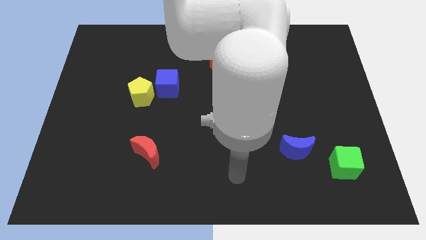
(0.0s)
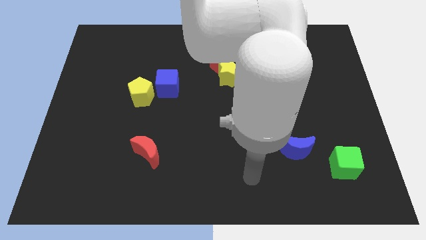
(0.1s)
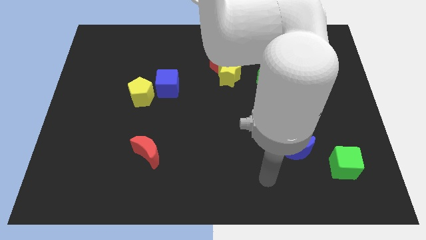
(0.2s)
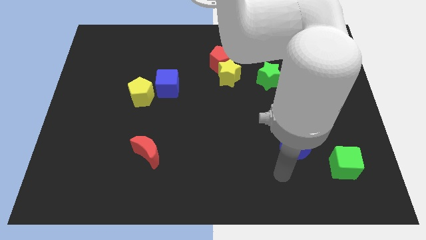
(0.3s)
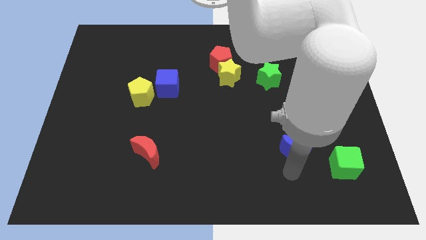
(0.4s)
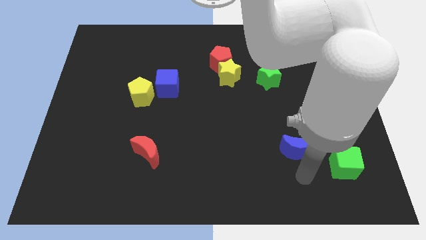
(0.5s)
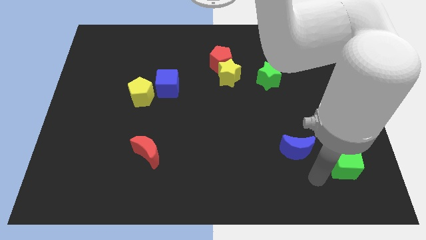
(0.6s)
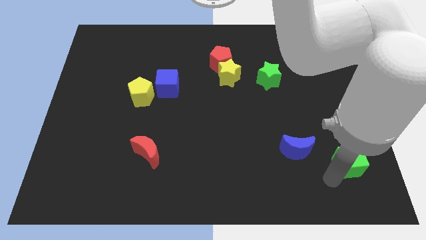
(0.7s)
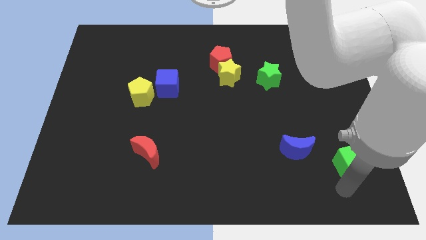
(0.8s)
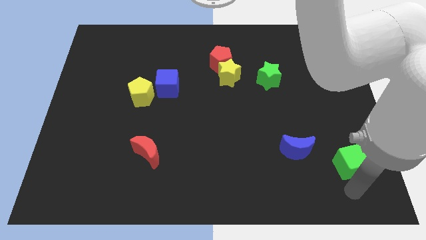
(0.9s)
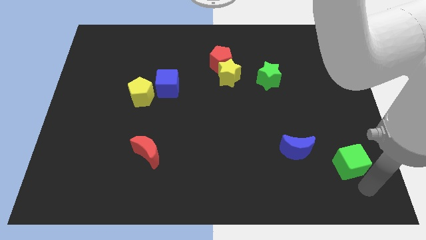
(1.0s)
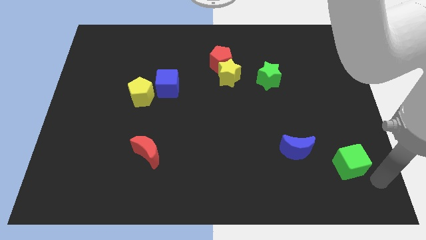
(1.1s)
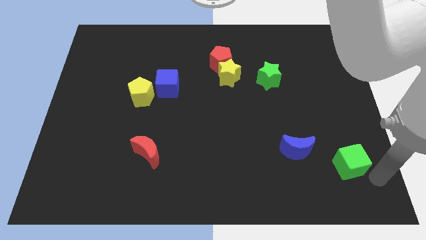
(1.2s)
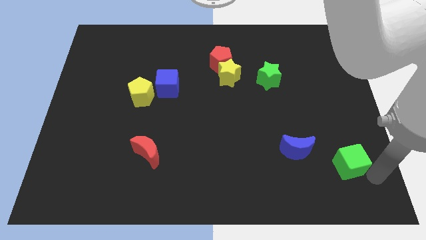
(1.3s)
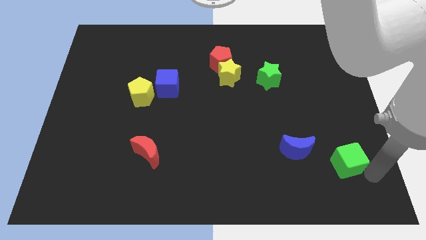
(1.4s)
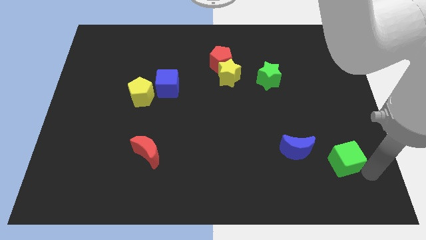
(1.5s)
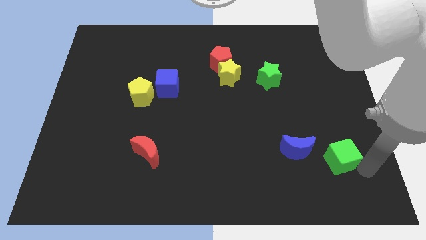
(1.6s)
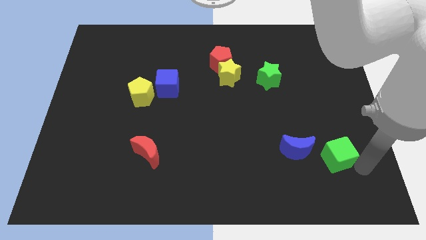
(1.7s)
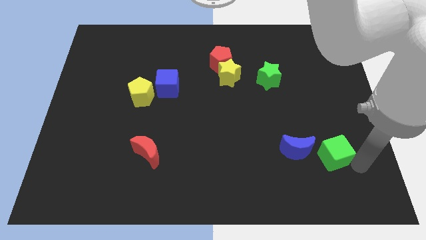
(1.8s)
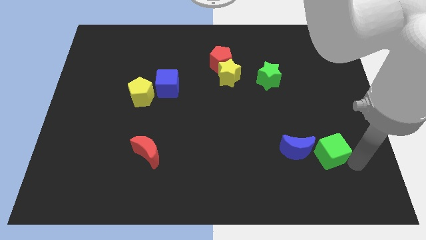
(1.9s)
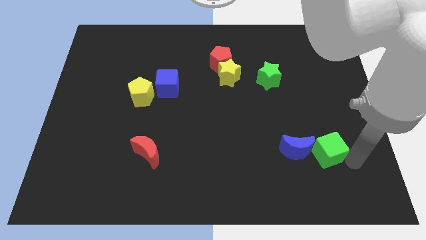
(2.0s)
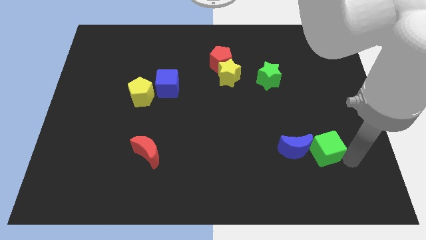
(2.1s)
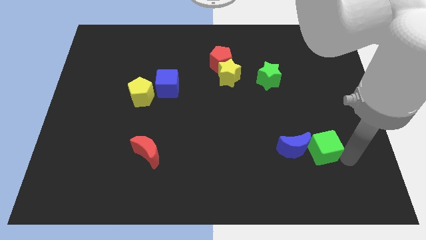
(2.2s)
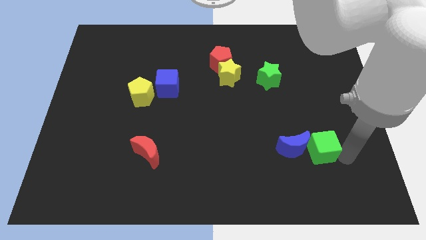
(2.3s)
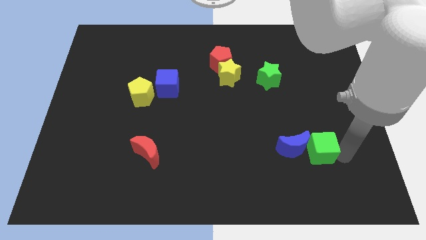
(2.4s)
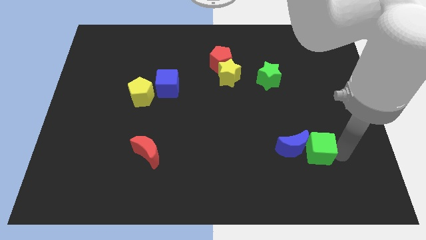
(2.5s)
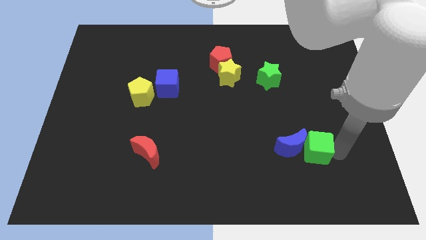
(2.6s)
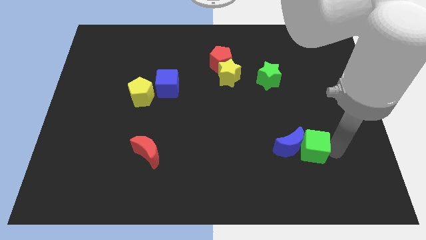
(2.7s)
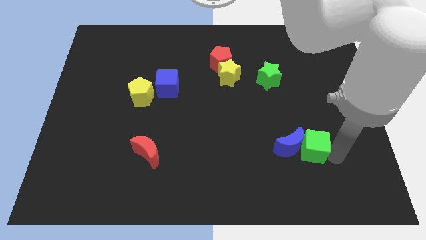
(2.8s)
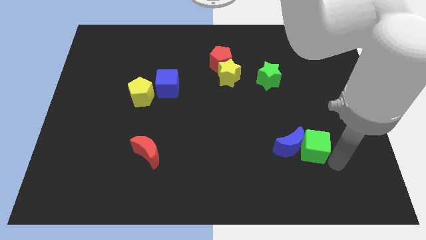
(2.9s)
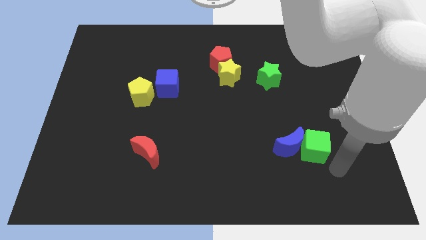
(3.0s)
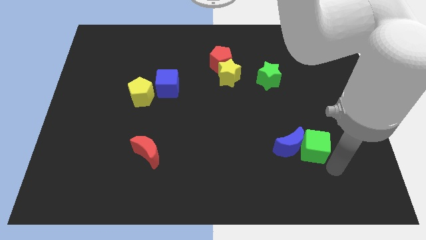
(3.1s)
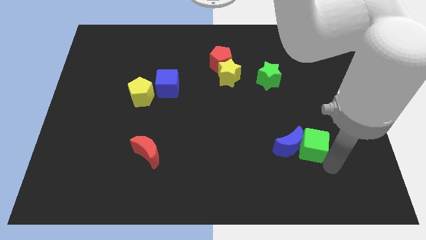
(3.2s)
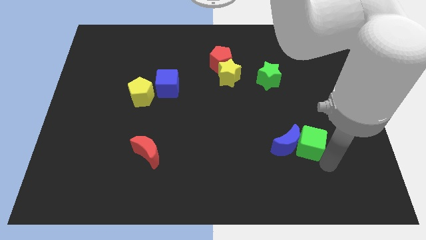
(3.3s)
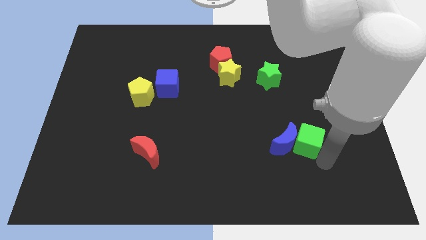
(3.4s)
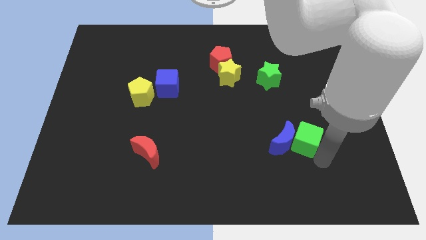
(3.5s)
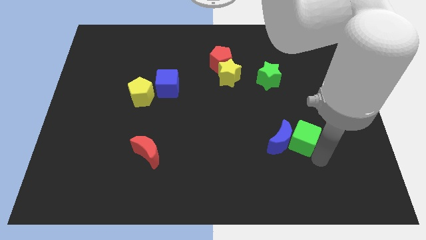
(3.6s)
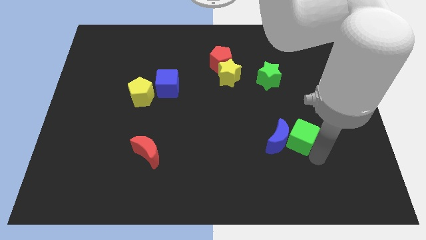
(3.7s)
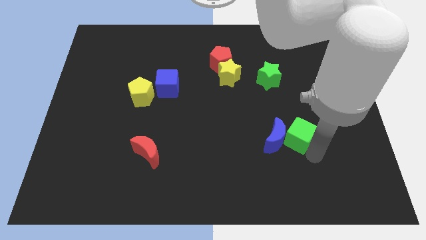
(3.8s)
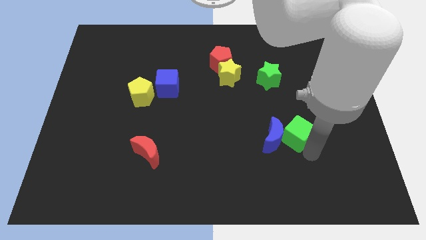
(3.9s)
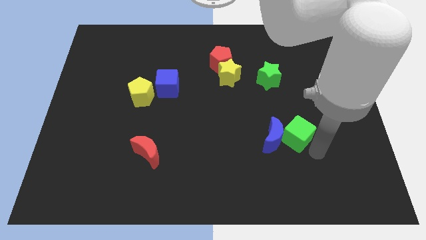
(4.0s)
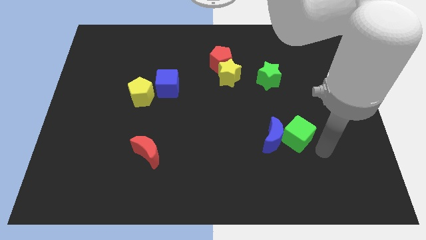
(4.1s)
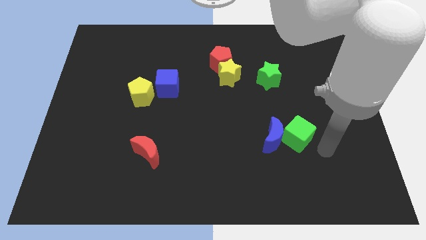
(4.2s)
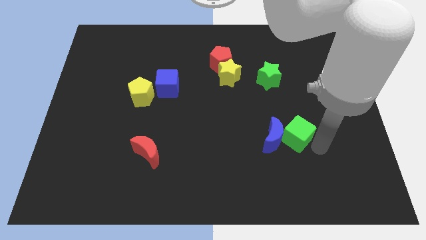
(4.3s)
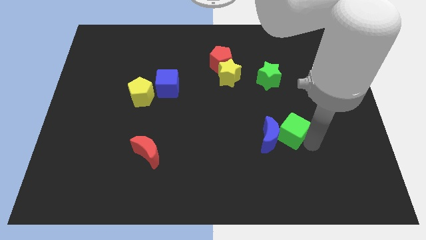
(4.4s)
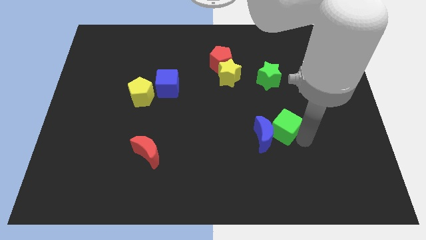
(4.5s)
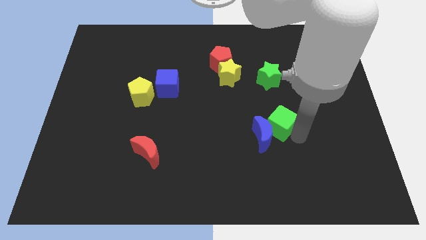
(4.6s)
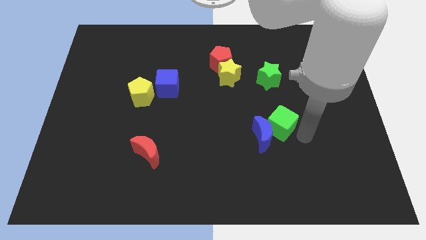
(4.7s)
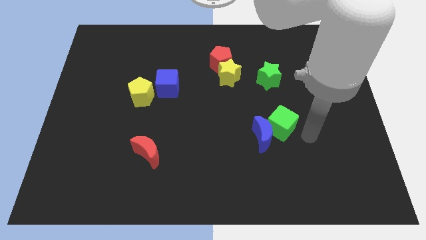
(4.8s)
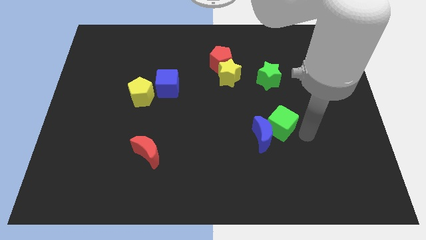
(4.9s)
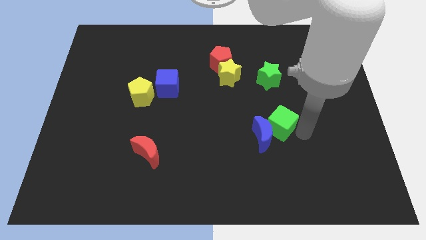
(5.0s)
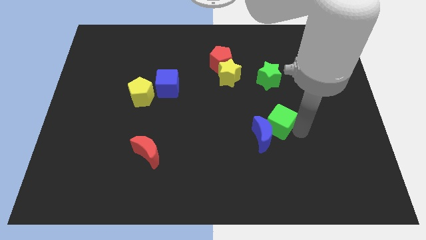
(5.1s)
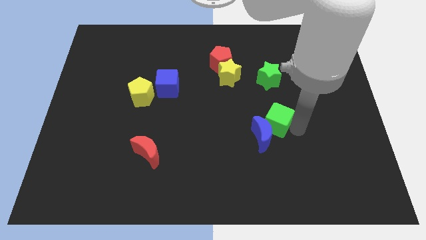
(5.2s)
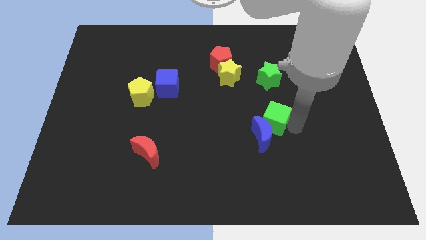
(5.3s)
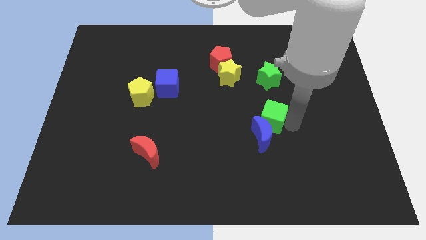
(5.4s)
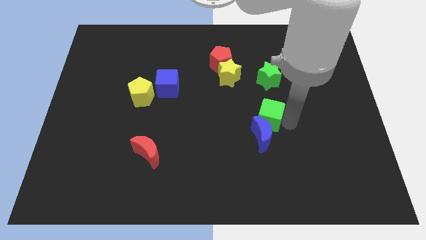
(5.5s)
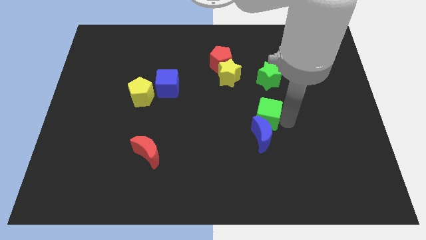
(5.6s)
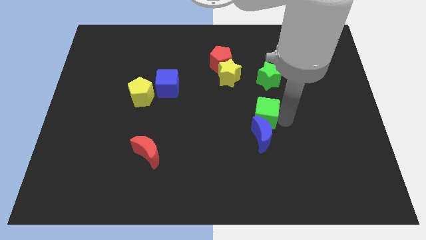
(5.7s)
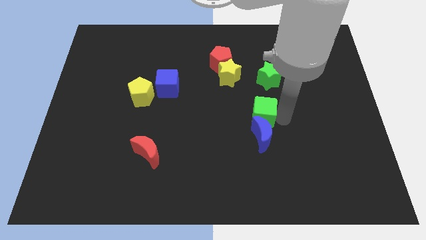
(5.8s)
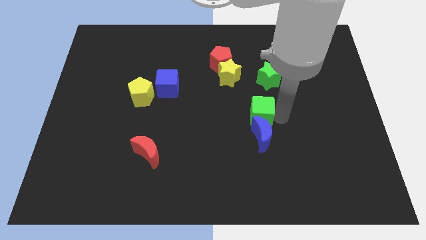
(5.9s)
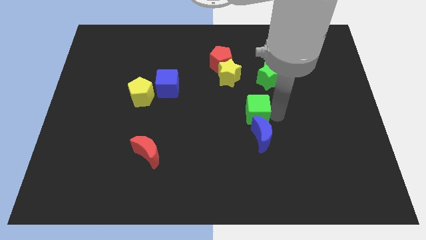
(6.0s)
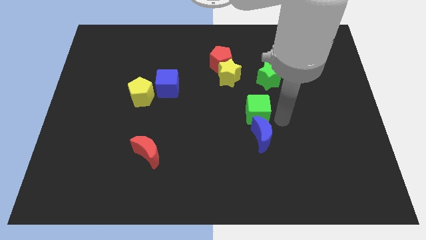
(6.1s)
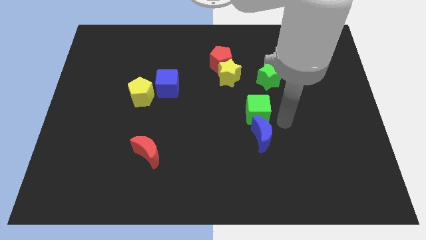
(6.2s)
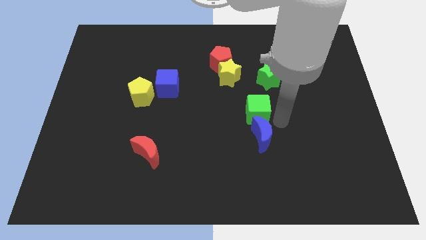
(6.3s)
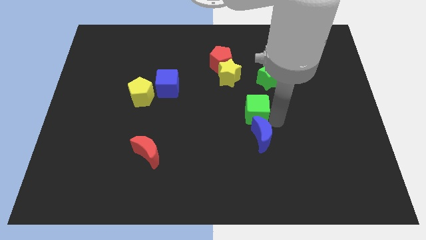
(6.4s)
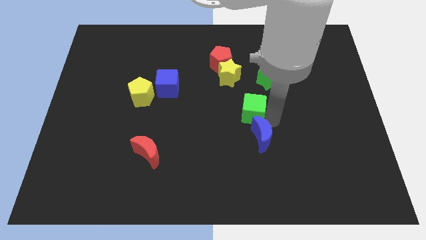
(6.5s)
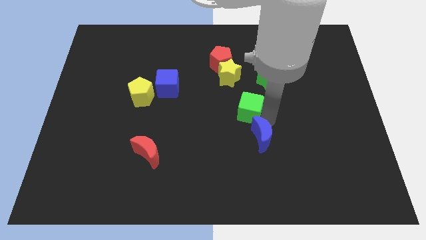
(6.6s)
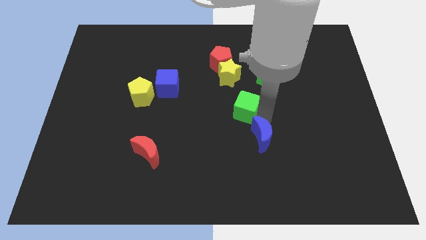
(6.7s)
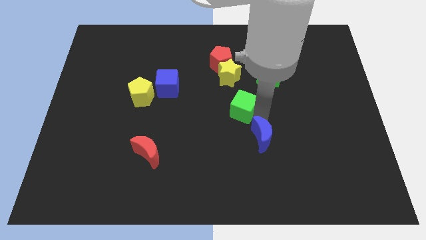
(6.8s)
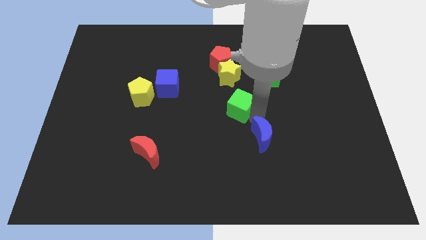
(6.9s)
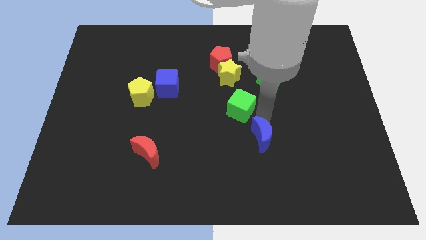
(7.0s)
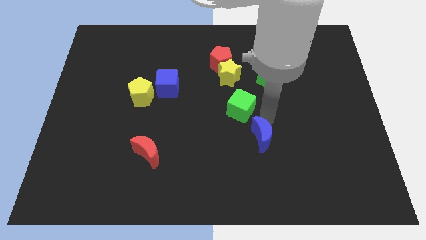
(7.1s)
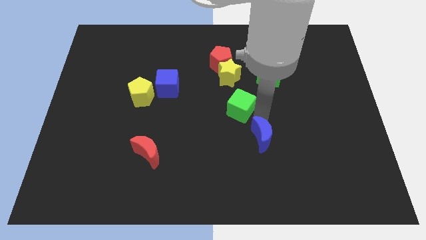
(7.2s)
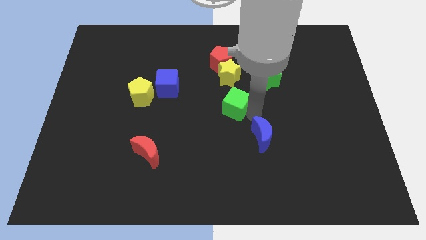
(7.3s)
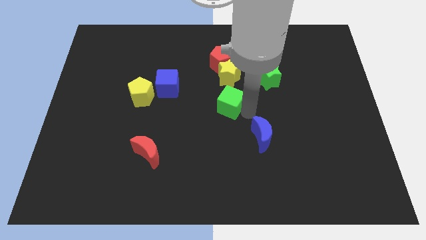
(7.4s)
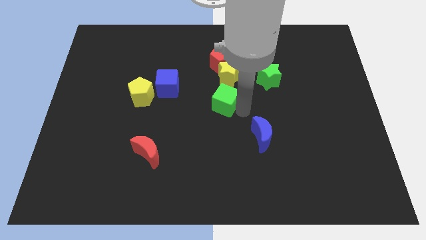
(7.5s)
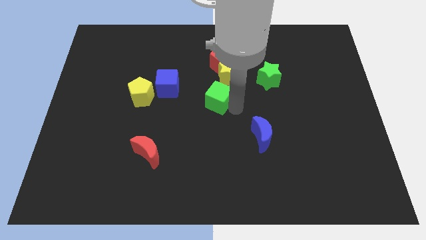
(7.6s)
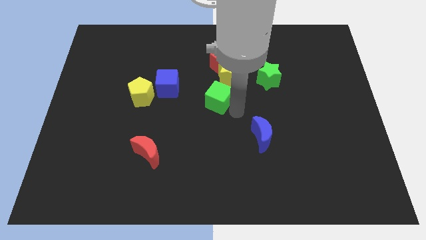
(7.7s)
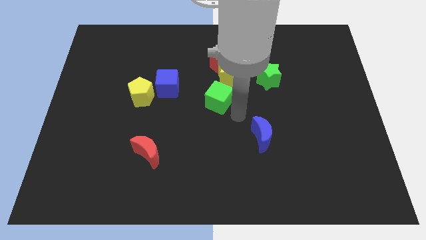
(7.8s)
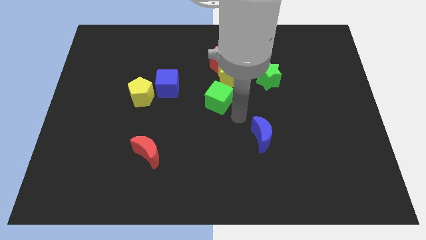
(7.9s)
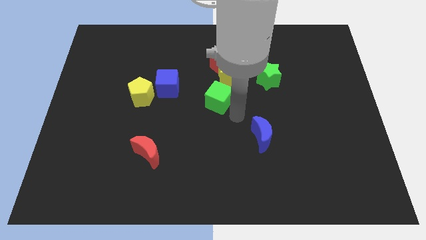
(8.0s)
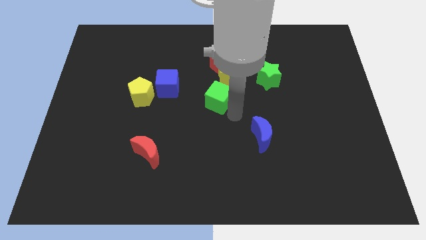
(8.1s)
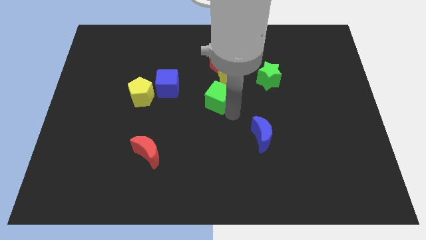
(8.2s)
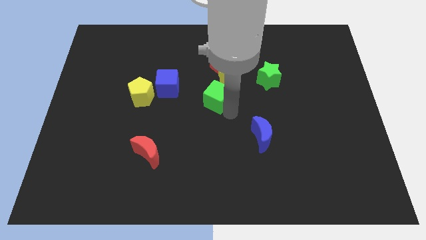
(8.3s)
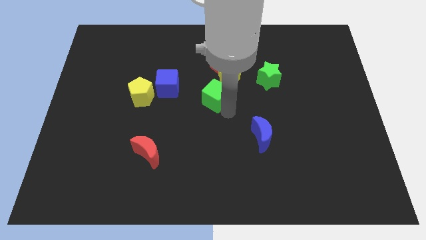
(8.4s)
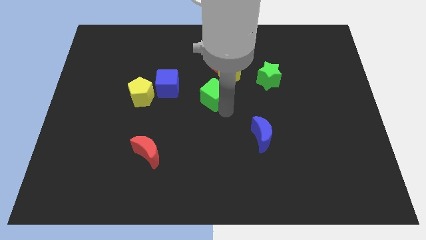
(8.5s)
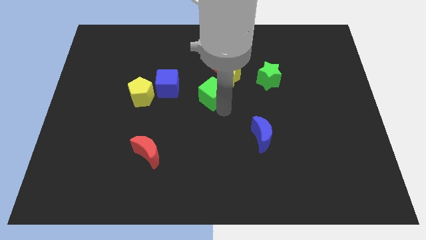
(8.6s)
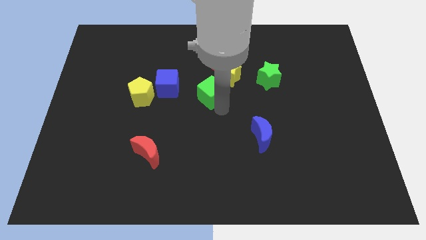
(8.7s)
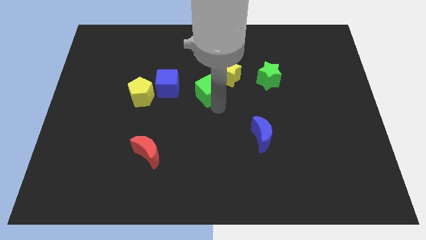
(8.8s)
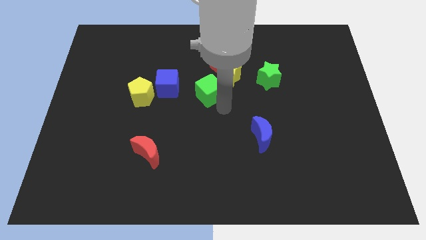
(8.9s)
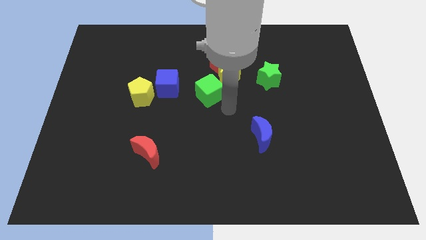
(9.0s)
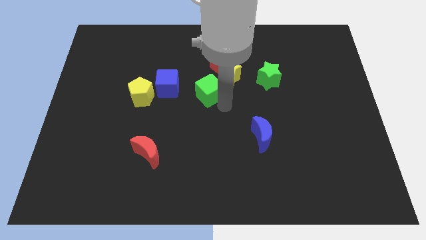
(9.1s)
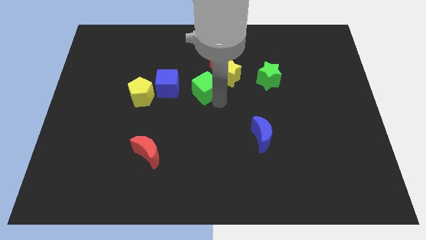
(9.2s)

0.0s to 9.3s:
slide the green cube just left of the yellow star
